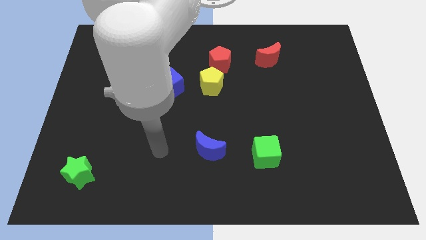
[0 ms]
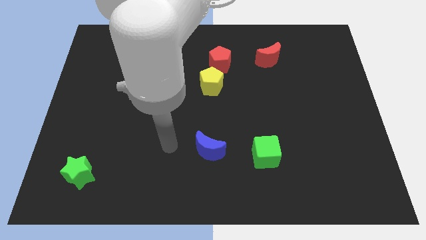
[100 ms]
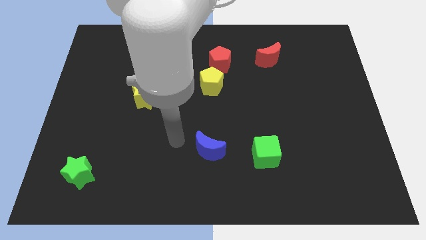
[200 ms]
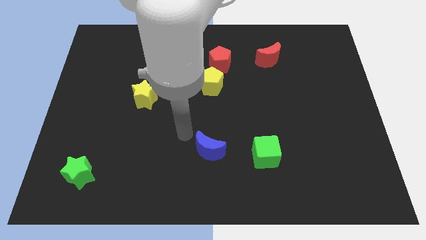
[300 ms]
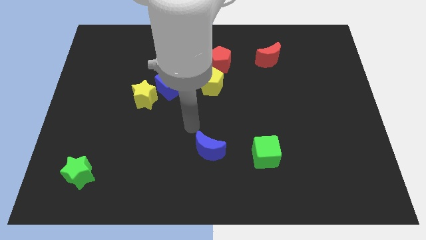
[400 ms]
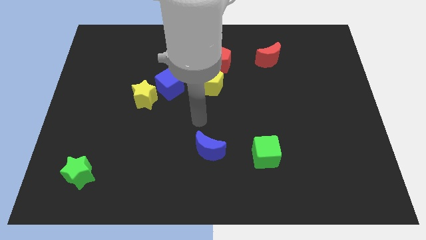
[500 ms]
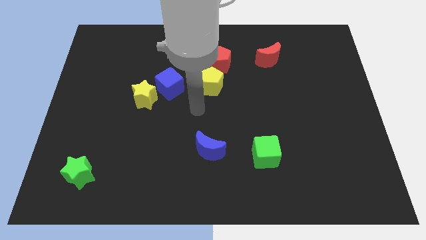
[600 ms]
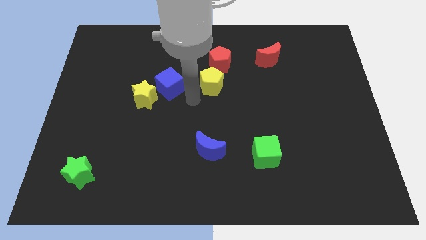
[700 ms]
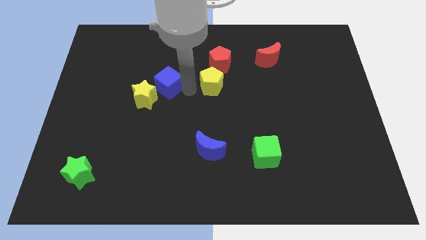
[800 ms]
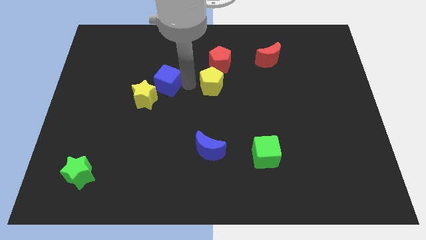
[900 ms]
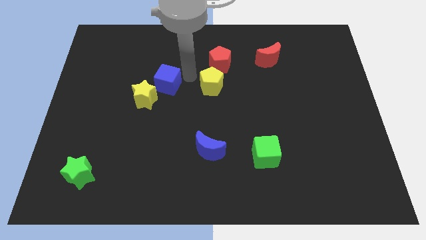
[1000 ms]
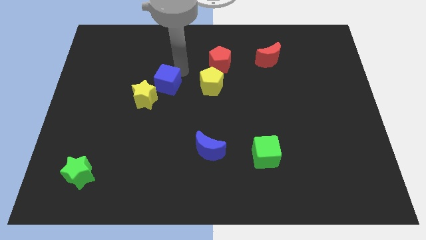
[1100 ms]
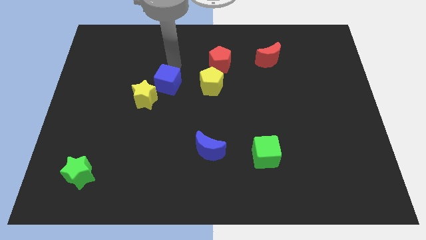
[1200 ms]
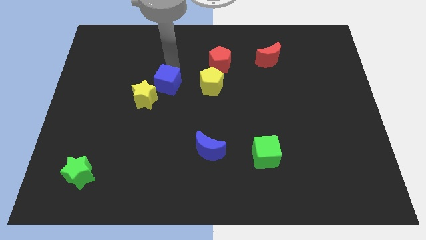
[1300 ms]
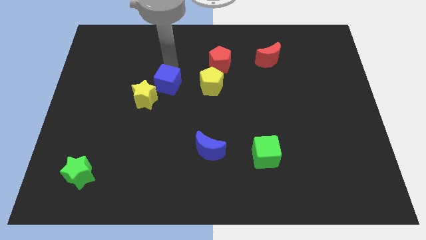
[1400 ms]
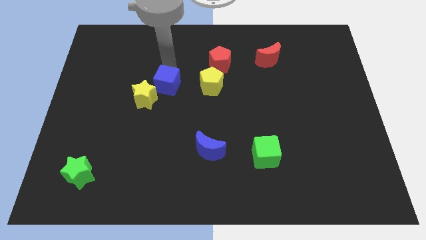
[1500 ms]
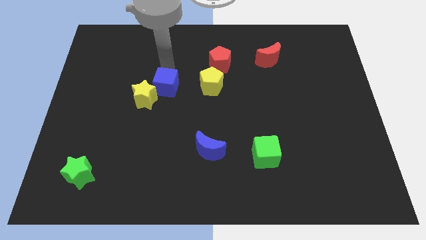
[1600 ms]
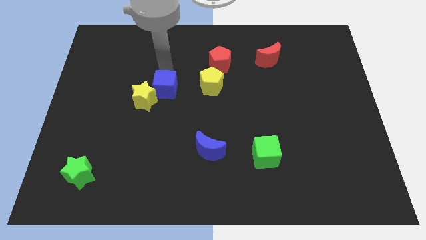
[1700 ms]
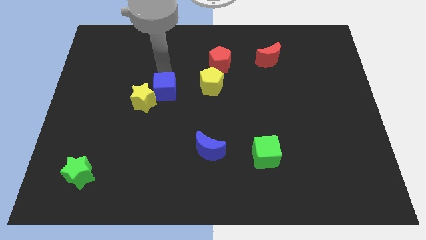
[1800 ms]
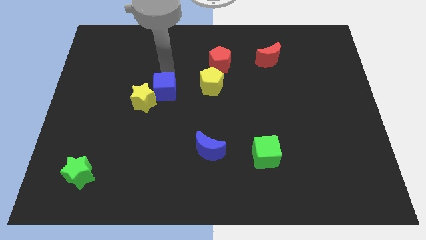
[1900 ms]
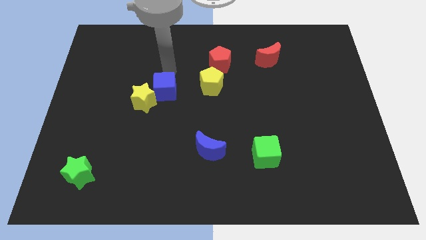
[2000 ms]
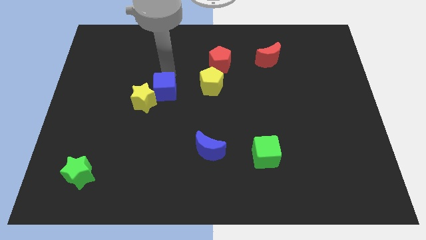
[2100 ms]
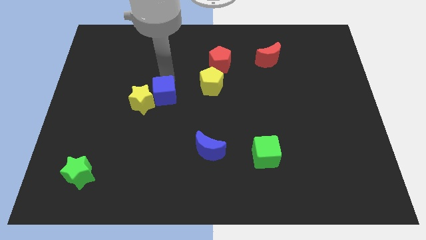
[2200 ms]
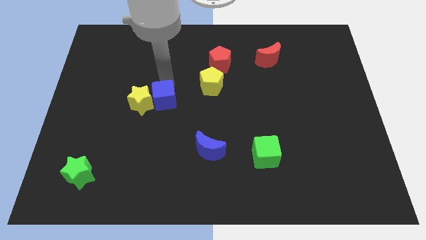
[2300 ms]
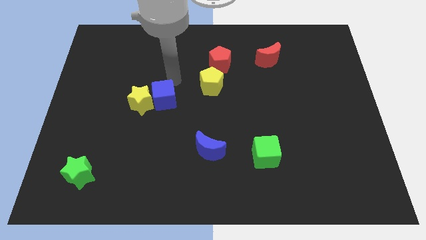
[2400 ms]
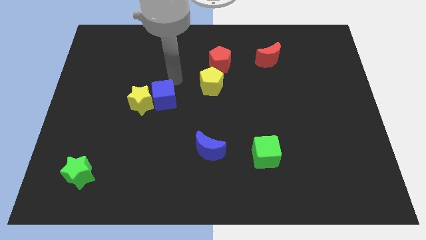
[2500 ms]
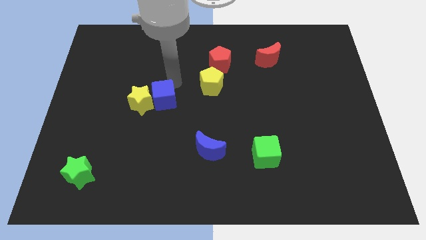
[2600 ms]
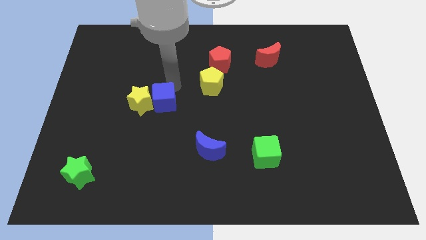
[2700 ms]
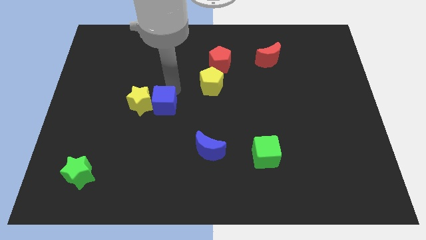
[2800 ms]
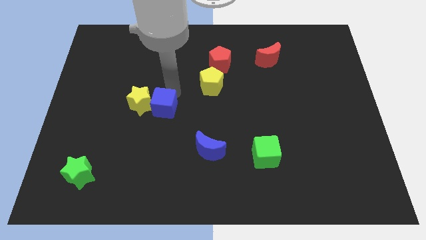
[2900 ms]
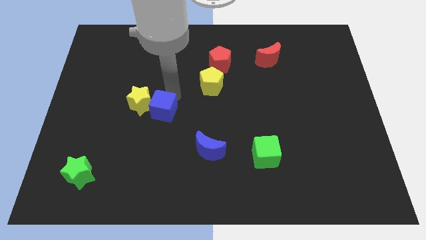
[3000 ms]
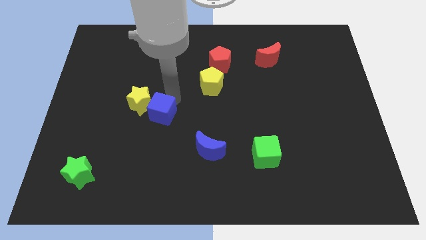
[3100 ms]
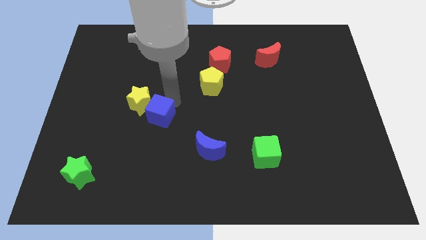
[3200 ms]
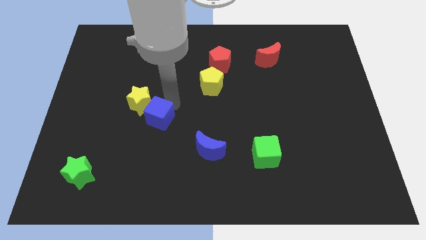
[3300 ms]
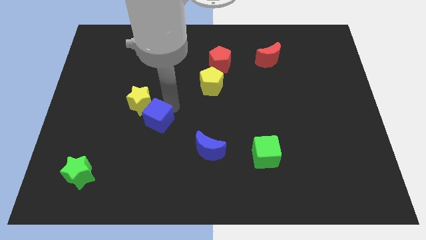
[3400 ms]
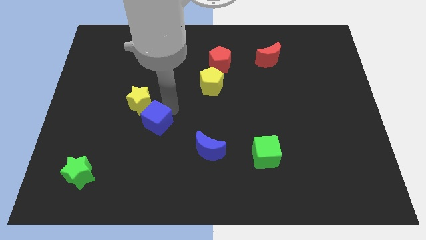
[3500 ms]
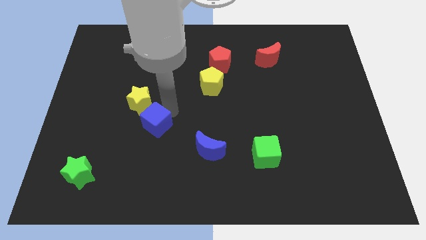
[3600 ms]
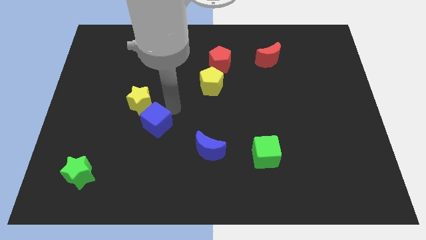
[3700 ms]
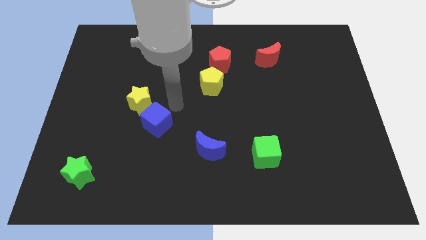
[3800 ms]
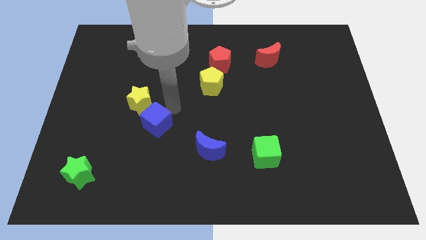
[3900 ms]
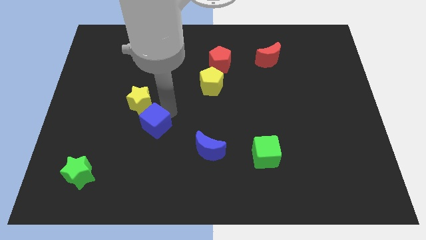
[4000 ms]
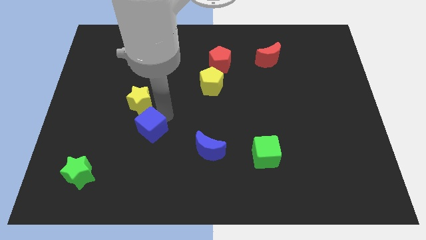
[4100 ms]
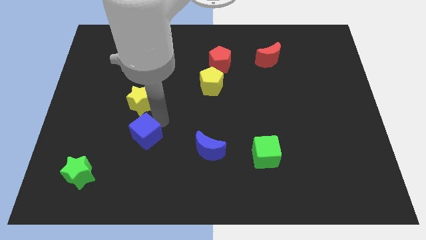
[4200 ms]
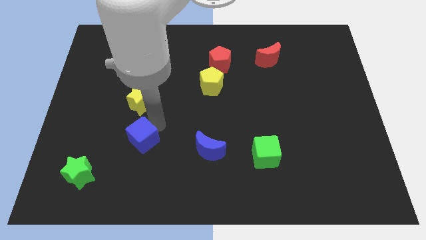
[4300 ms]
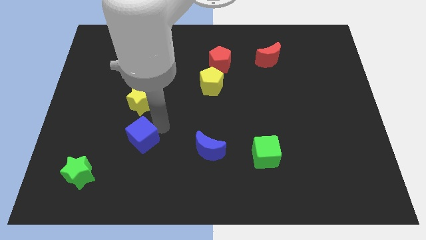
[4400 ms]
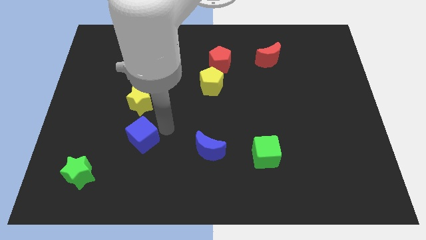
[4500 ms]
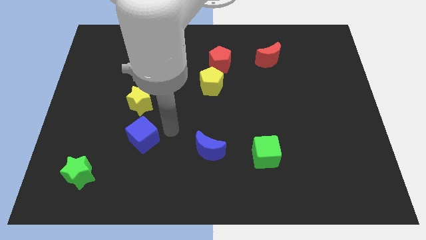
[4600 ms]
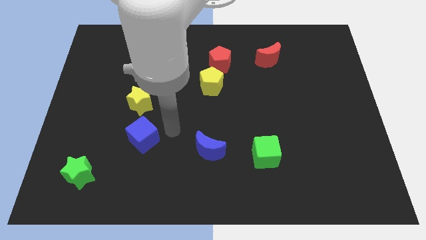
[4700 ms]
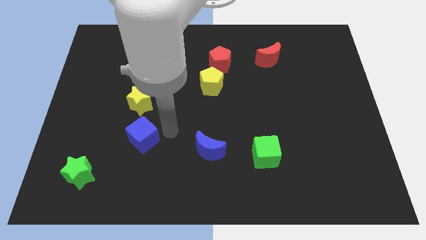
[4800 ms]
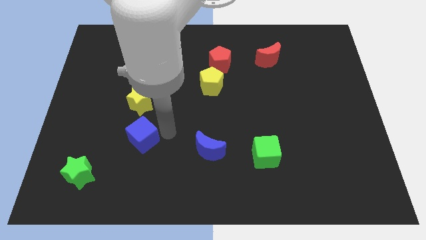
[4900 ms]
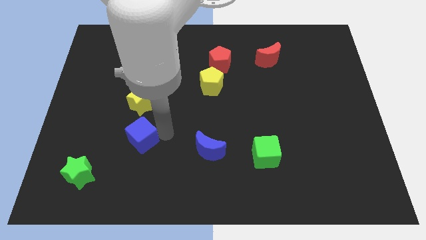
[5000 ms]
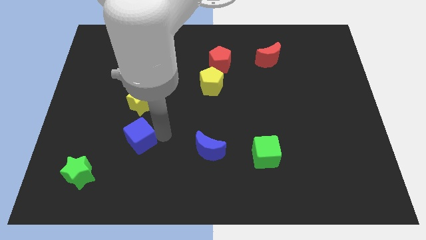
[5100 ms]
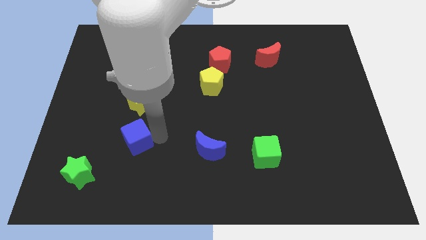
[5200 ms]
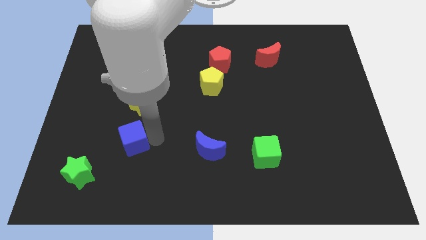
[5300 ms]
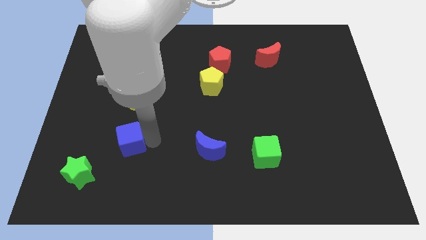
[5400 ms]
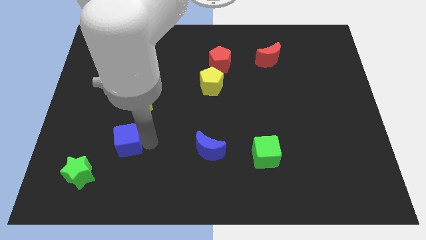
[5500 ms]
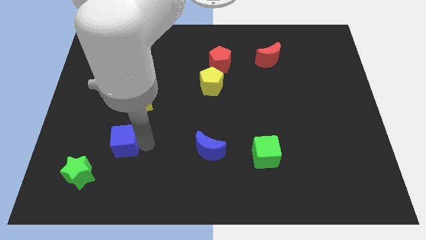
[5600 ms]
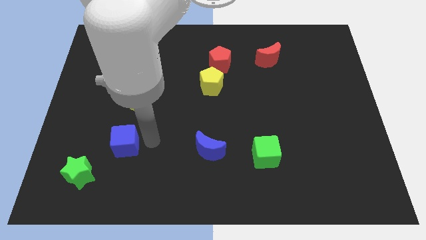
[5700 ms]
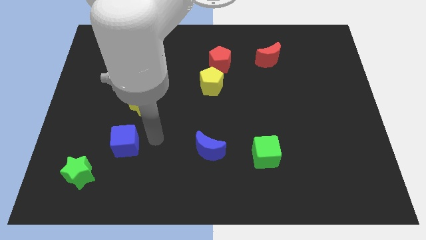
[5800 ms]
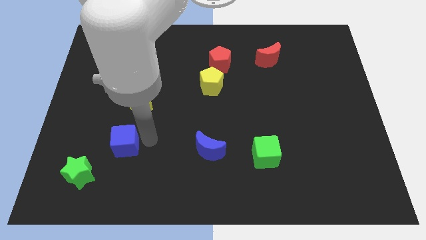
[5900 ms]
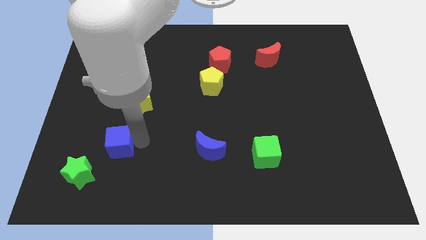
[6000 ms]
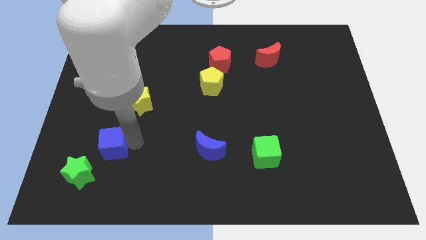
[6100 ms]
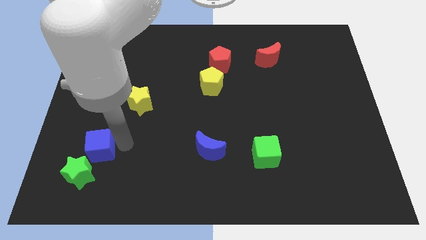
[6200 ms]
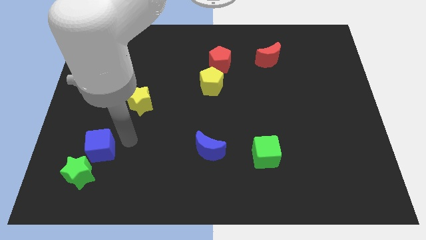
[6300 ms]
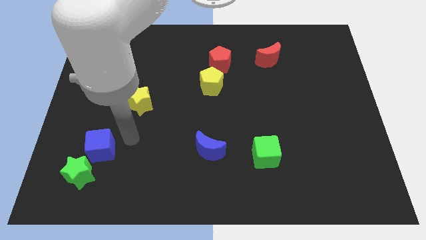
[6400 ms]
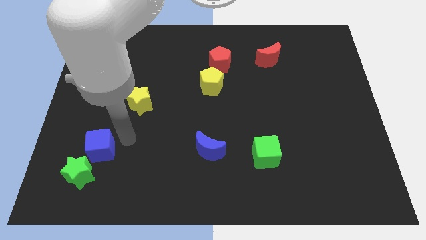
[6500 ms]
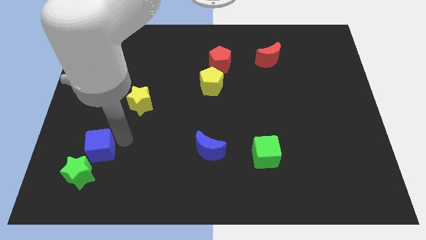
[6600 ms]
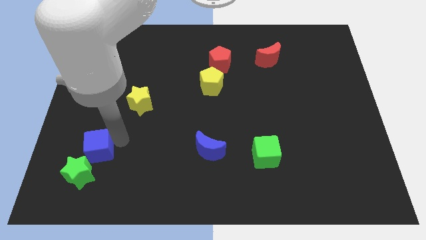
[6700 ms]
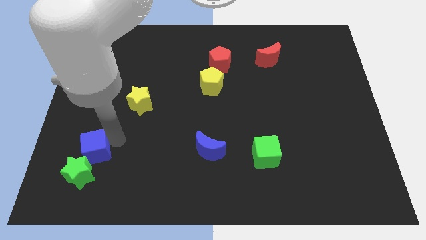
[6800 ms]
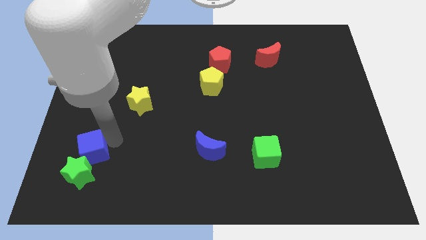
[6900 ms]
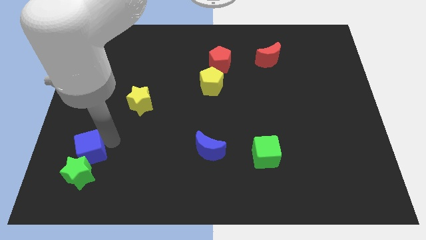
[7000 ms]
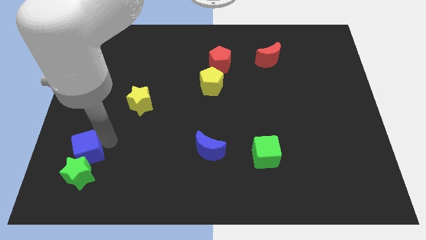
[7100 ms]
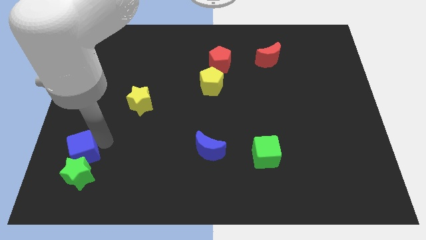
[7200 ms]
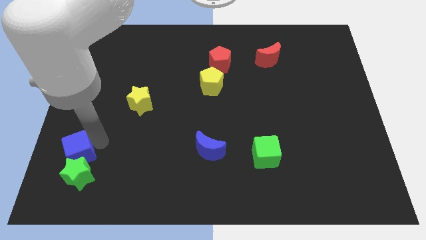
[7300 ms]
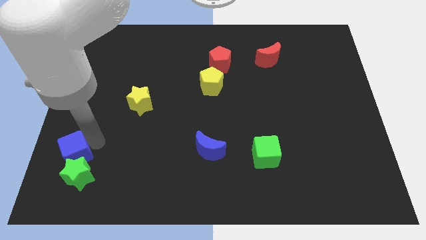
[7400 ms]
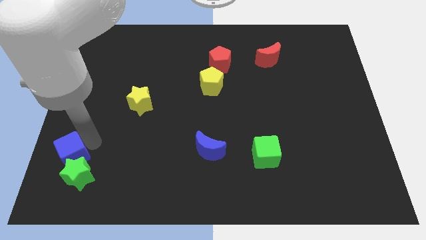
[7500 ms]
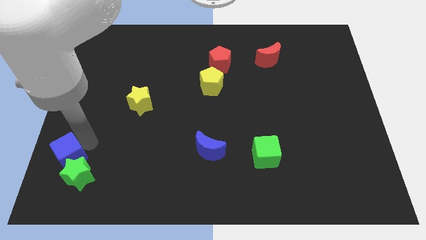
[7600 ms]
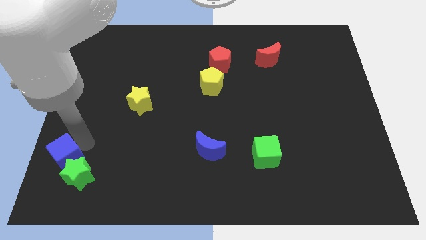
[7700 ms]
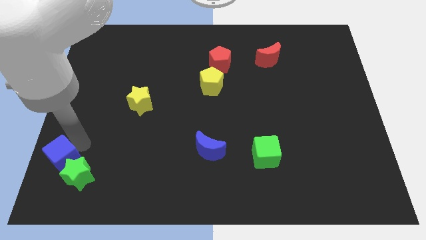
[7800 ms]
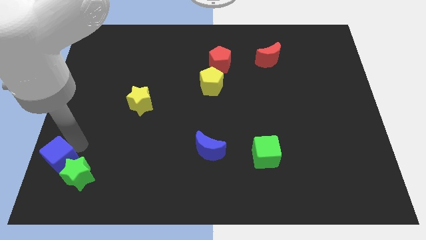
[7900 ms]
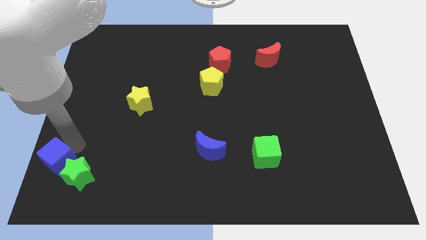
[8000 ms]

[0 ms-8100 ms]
move the blue cube to the lower left corner
